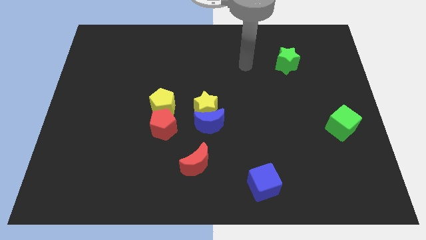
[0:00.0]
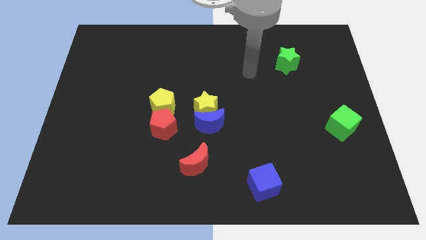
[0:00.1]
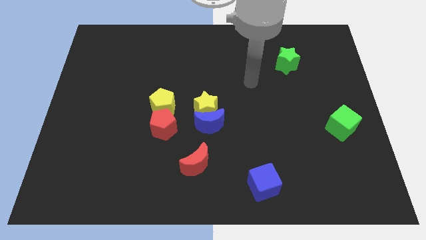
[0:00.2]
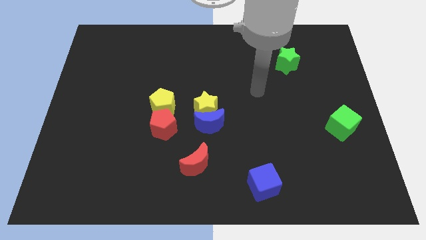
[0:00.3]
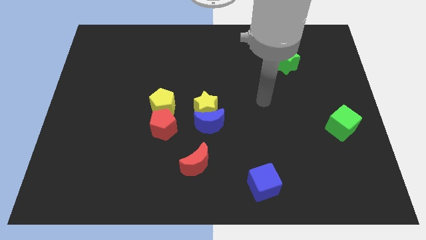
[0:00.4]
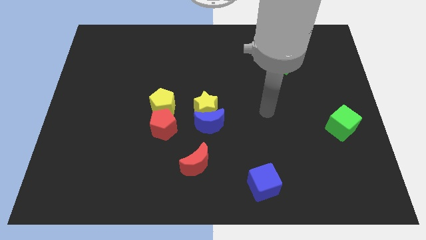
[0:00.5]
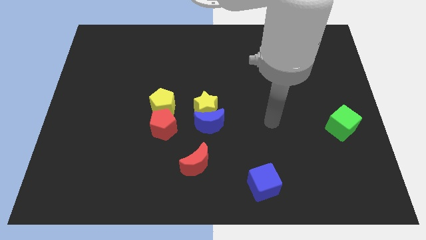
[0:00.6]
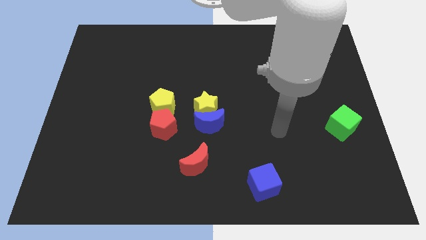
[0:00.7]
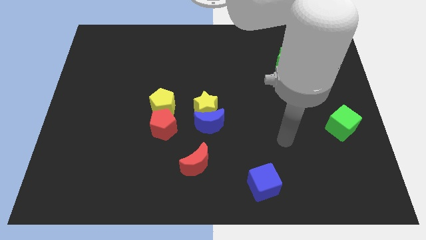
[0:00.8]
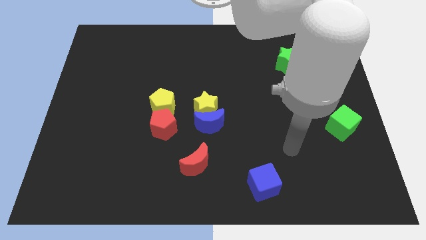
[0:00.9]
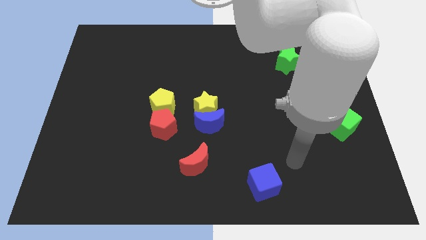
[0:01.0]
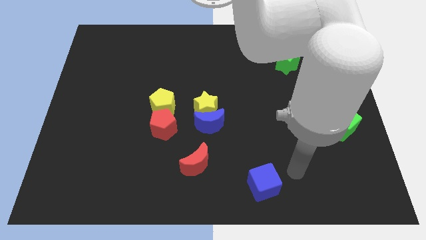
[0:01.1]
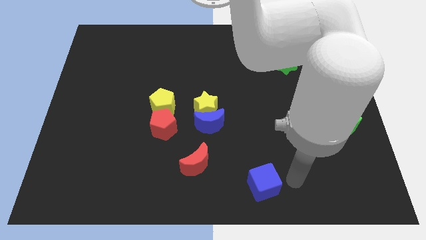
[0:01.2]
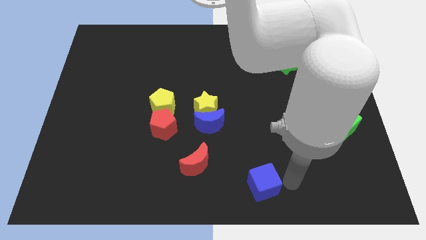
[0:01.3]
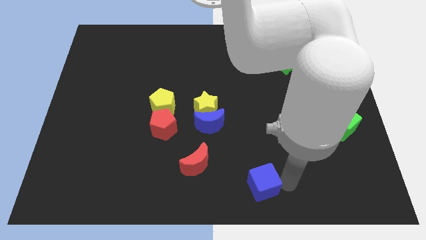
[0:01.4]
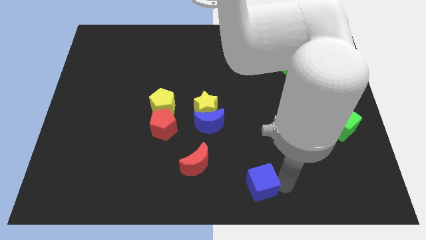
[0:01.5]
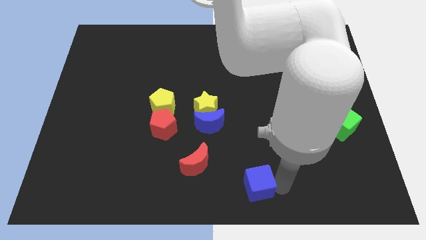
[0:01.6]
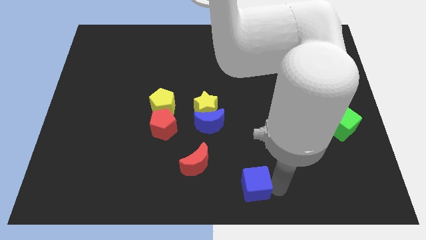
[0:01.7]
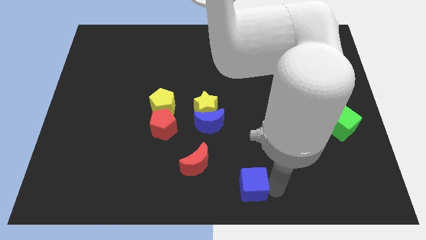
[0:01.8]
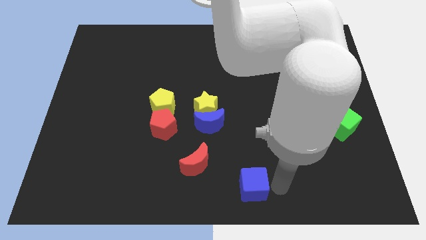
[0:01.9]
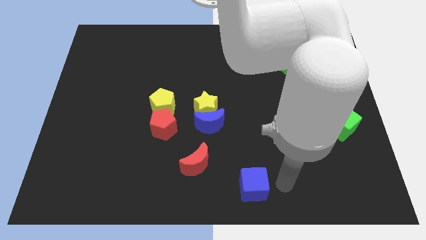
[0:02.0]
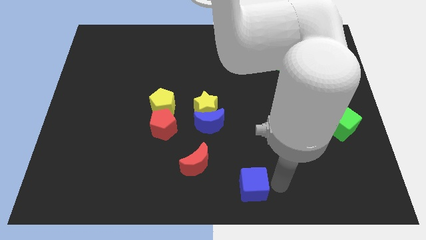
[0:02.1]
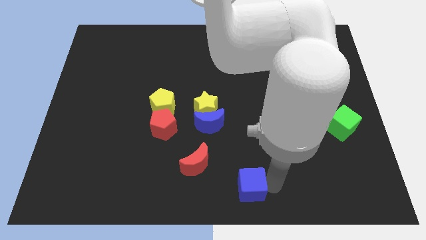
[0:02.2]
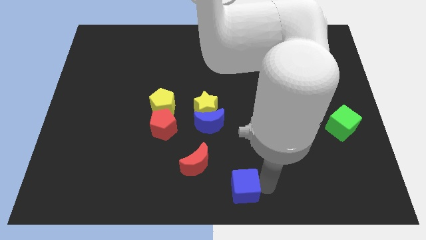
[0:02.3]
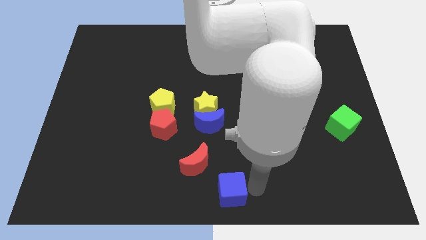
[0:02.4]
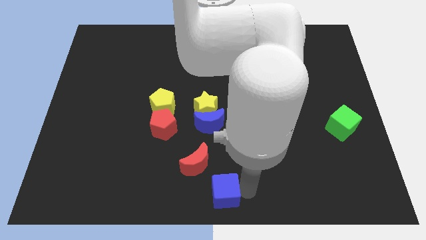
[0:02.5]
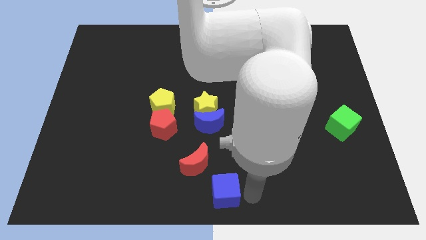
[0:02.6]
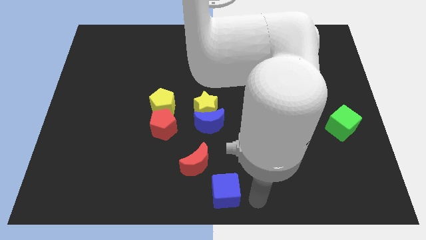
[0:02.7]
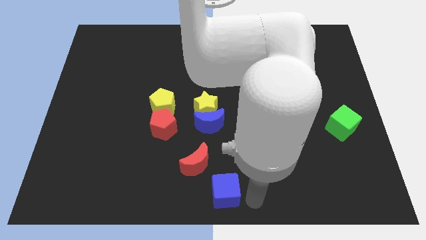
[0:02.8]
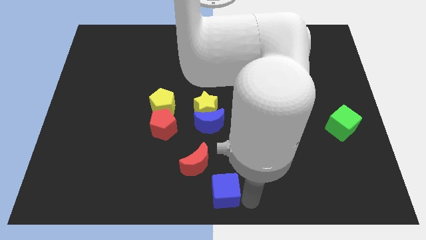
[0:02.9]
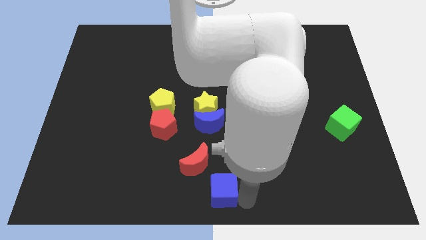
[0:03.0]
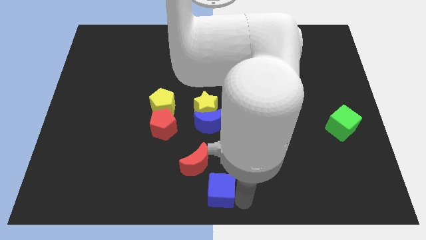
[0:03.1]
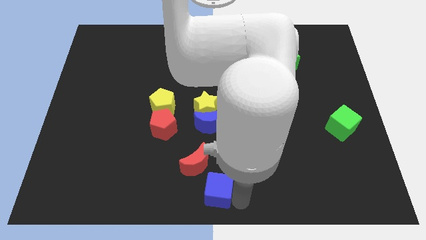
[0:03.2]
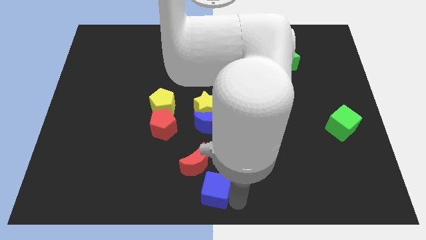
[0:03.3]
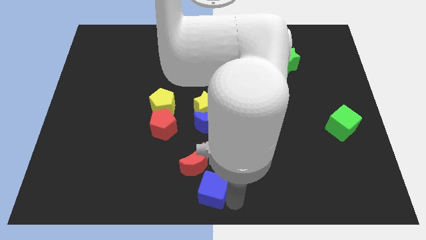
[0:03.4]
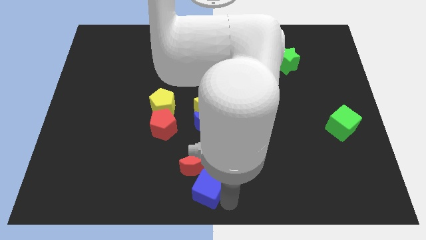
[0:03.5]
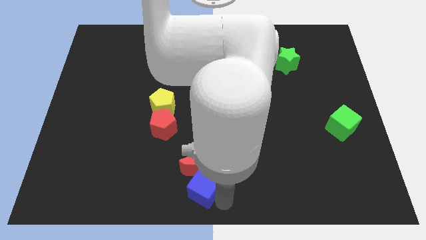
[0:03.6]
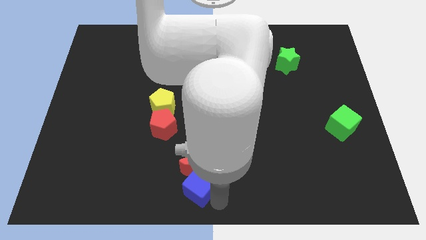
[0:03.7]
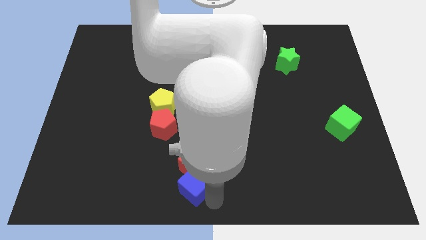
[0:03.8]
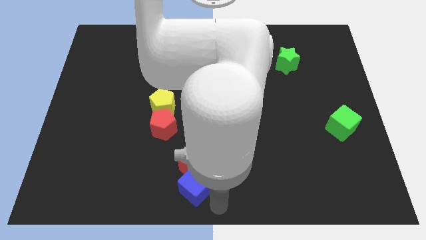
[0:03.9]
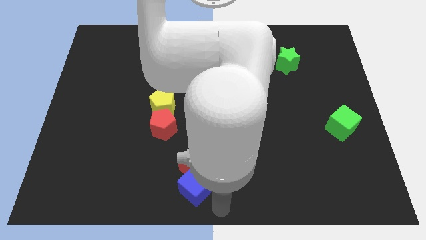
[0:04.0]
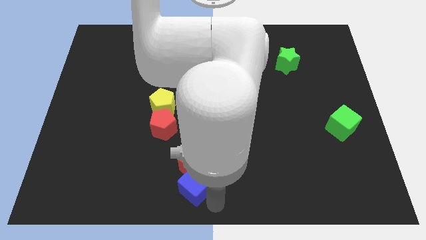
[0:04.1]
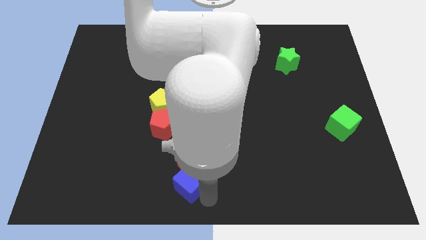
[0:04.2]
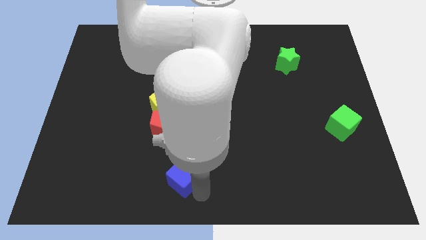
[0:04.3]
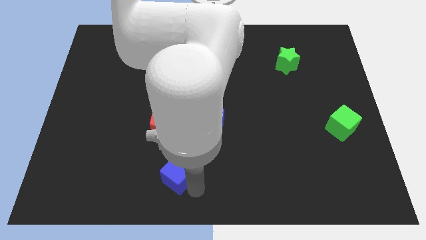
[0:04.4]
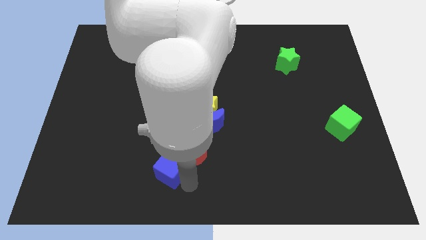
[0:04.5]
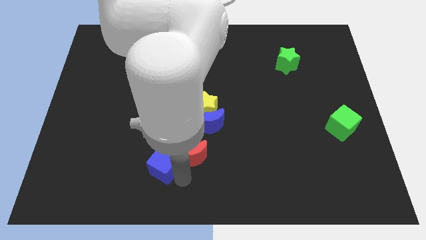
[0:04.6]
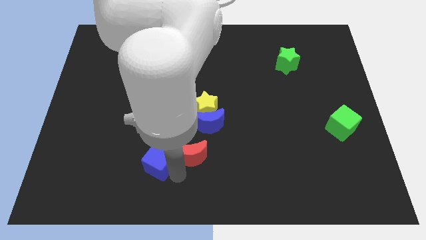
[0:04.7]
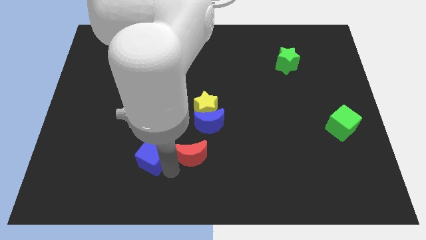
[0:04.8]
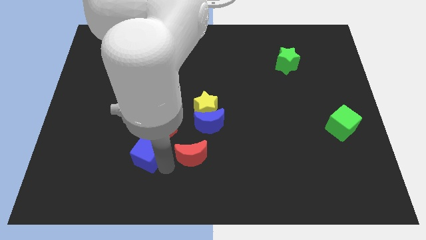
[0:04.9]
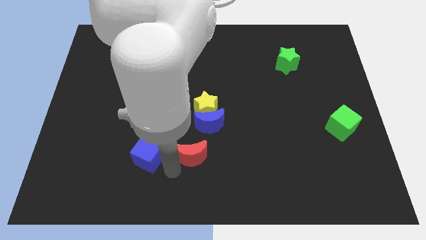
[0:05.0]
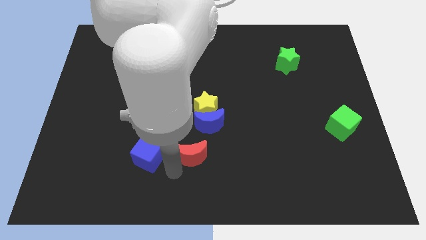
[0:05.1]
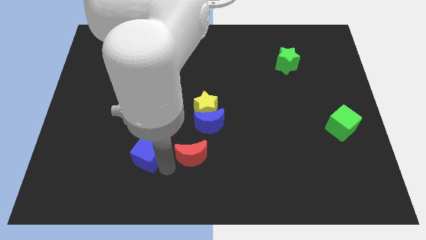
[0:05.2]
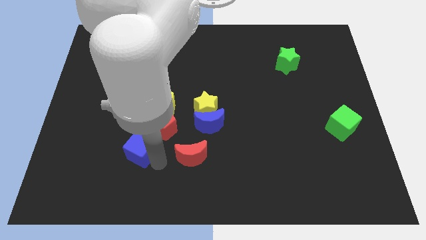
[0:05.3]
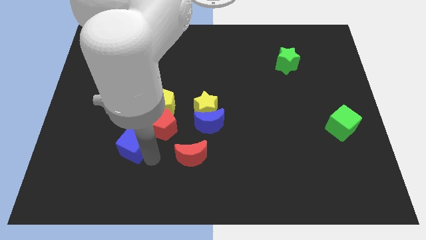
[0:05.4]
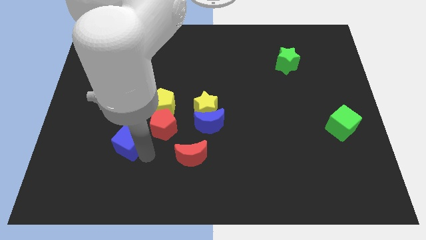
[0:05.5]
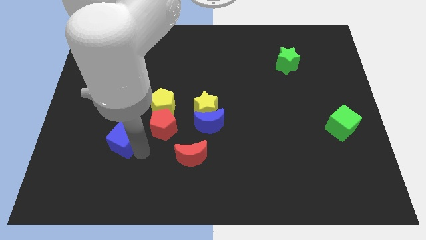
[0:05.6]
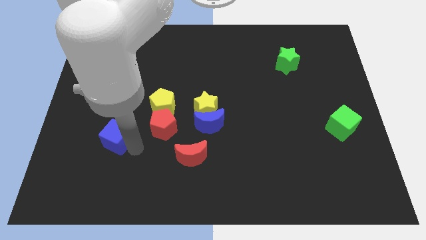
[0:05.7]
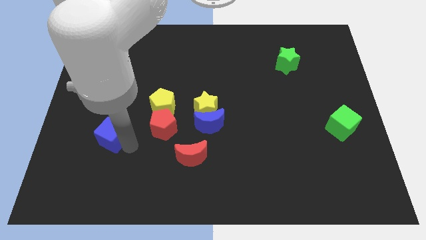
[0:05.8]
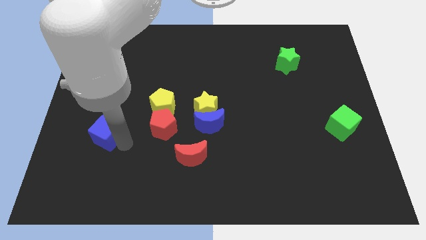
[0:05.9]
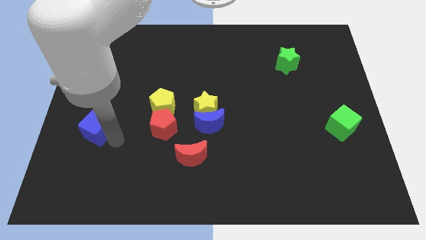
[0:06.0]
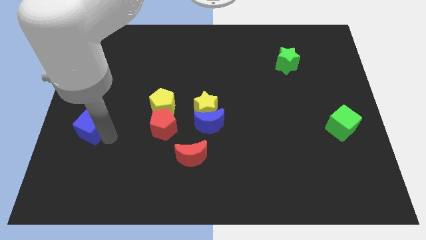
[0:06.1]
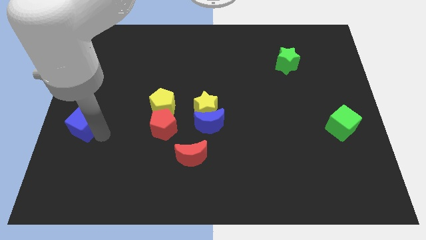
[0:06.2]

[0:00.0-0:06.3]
put the blue cube to the center left

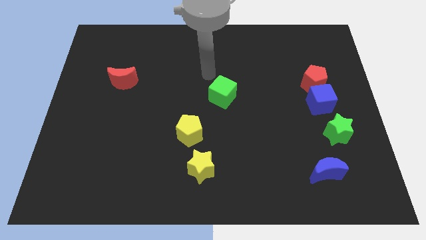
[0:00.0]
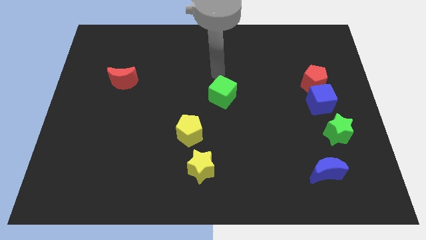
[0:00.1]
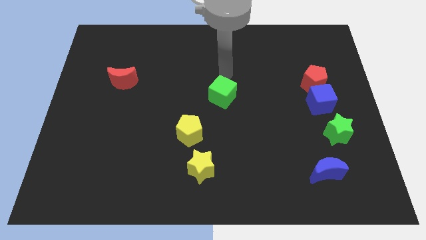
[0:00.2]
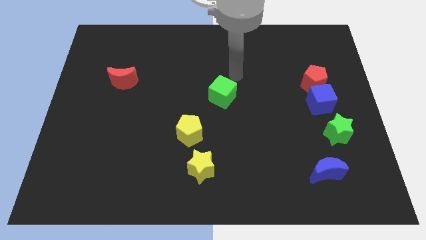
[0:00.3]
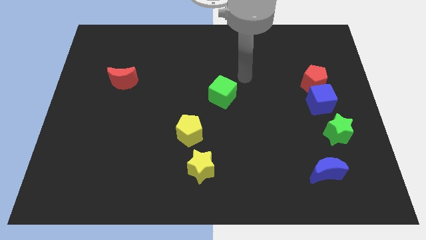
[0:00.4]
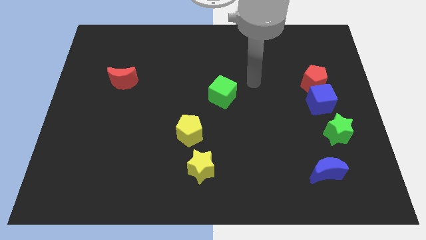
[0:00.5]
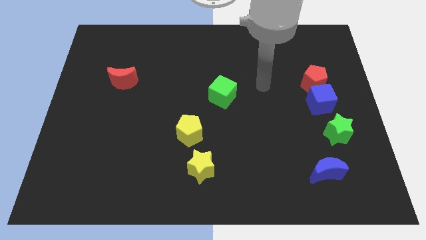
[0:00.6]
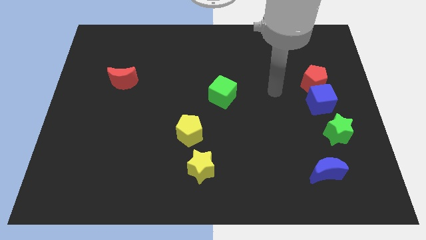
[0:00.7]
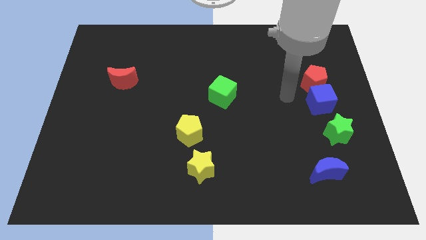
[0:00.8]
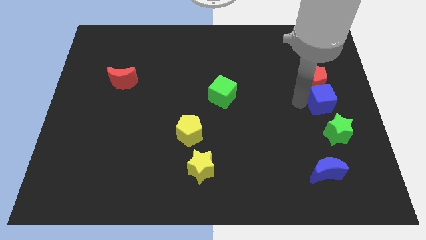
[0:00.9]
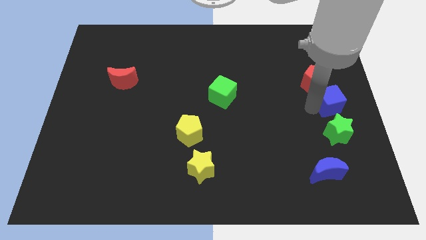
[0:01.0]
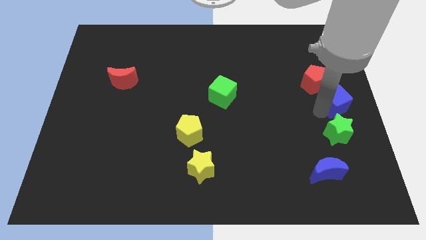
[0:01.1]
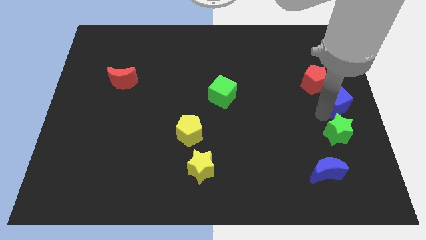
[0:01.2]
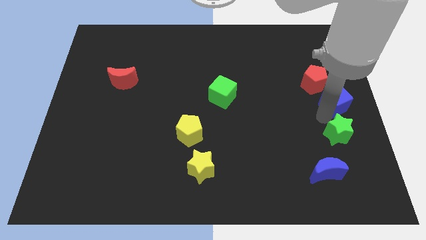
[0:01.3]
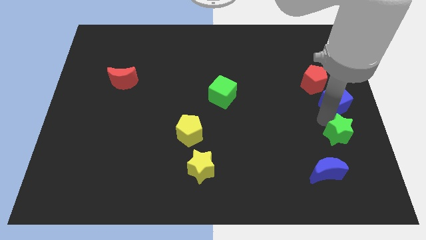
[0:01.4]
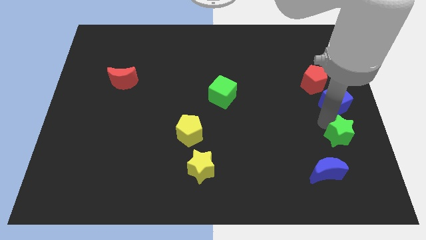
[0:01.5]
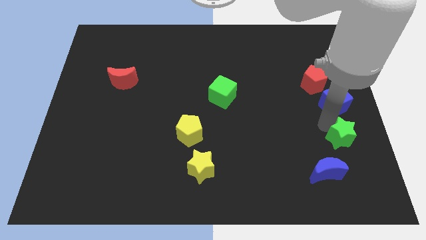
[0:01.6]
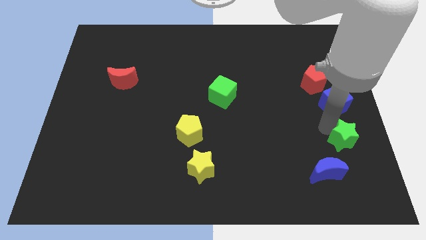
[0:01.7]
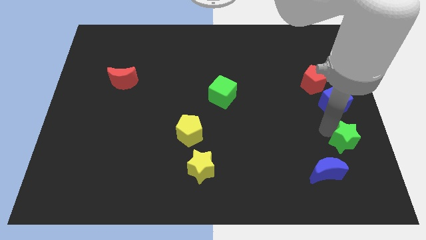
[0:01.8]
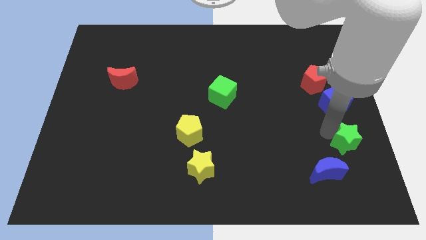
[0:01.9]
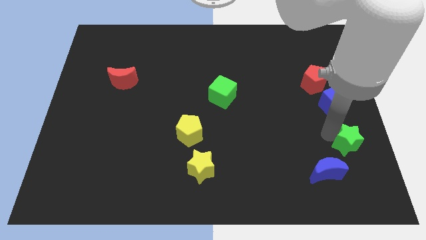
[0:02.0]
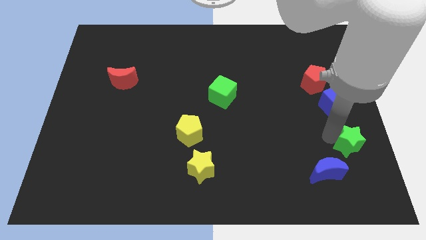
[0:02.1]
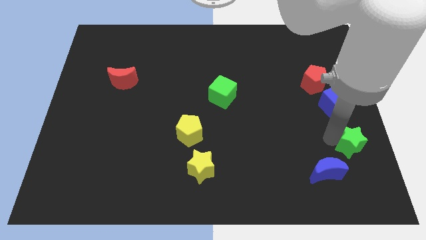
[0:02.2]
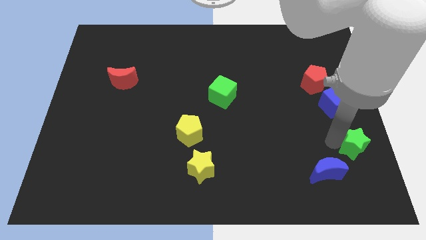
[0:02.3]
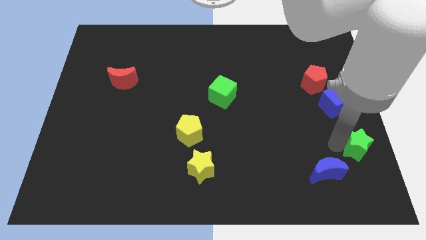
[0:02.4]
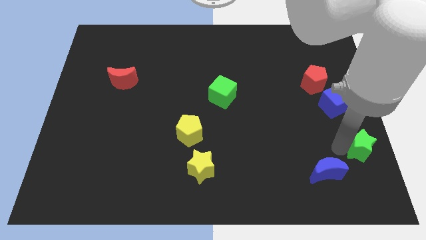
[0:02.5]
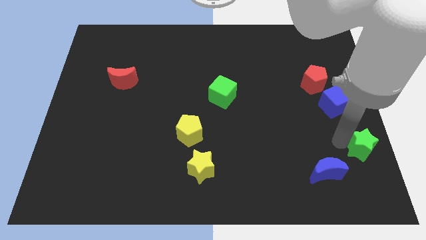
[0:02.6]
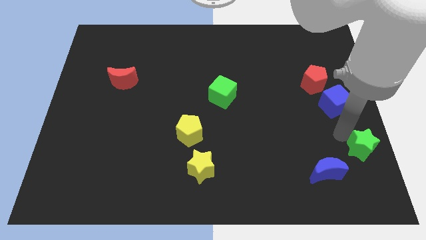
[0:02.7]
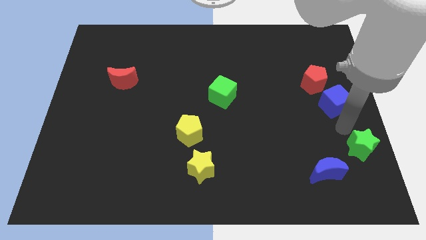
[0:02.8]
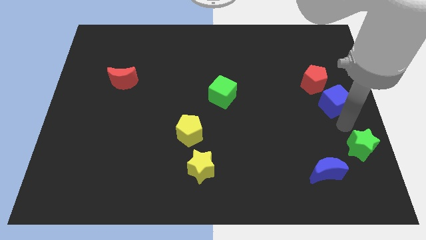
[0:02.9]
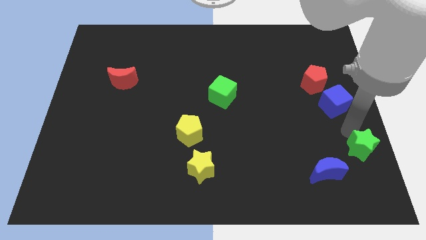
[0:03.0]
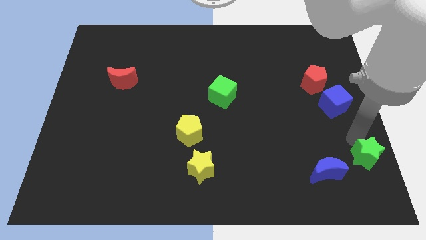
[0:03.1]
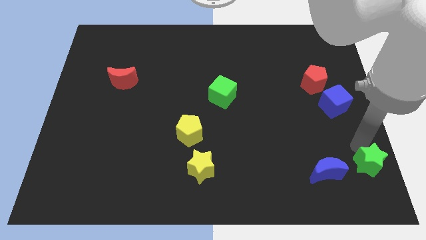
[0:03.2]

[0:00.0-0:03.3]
slide the green star to the bottom right of the board
